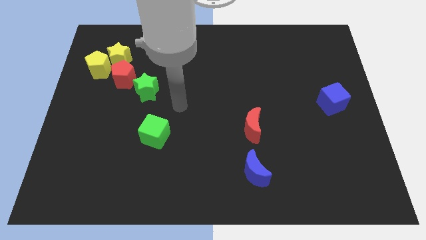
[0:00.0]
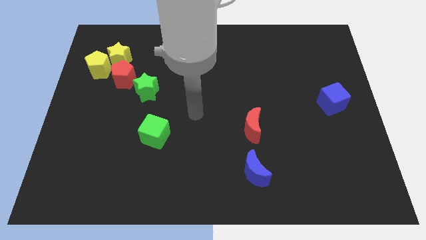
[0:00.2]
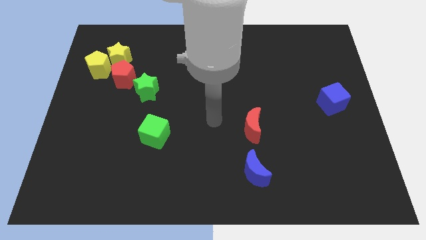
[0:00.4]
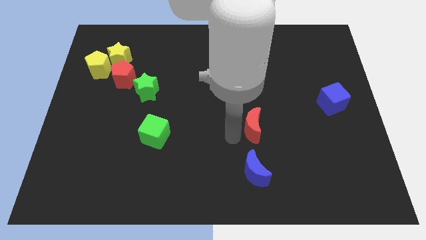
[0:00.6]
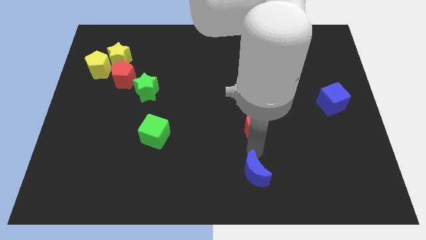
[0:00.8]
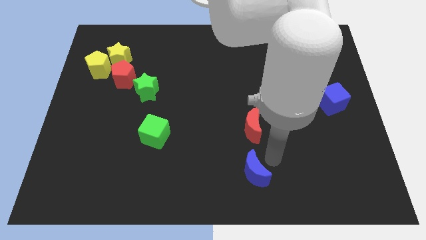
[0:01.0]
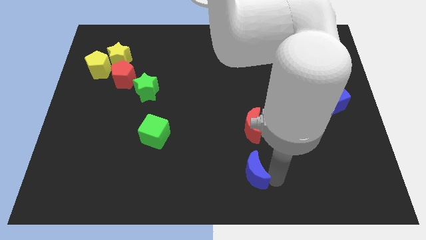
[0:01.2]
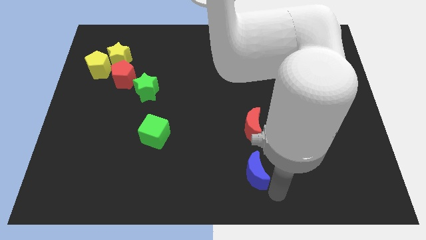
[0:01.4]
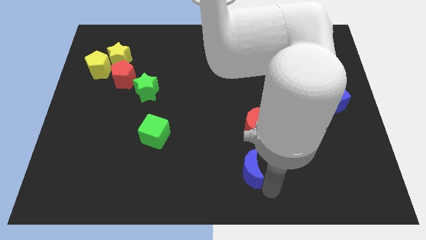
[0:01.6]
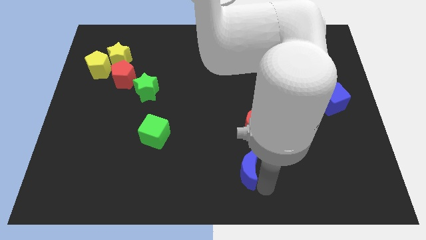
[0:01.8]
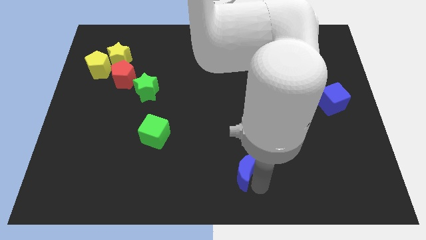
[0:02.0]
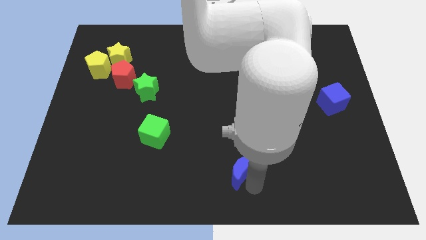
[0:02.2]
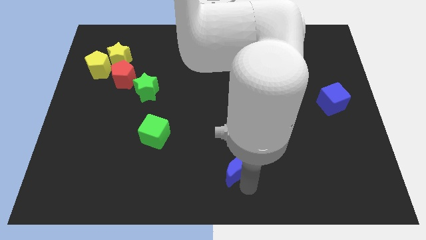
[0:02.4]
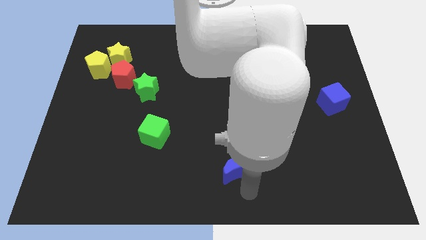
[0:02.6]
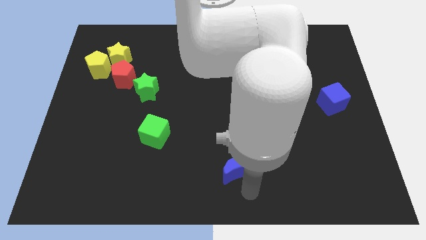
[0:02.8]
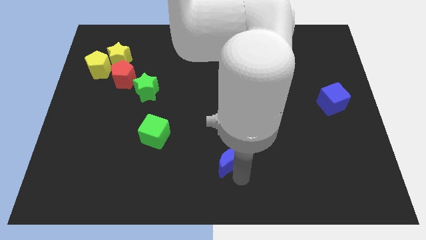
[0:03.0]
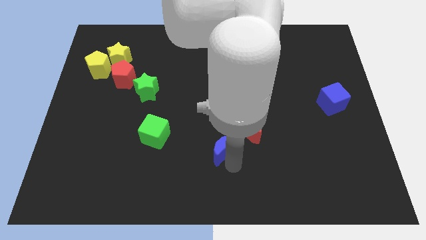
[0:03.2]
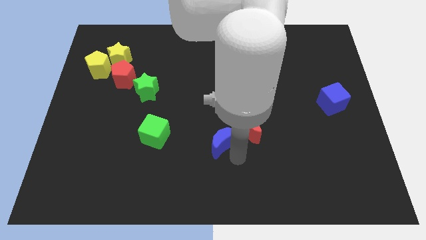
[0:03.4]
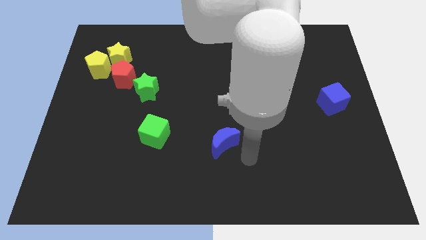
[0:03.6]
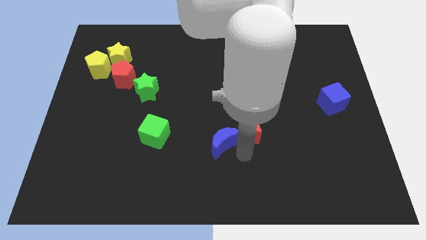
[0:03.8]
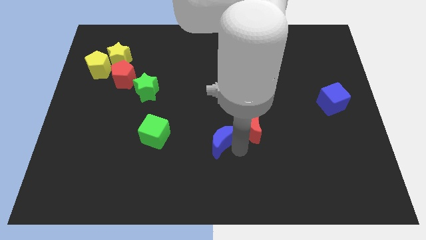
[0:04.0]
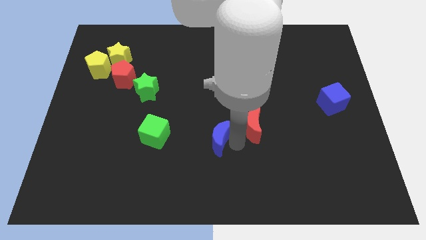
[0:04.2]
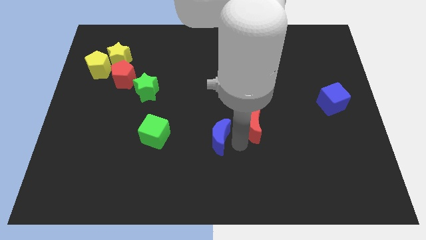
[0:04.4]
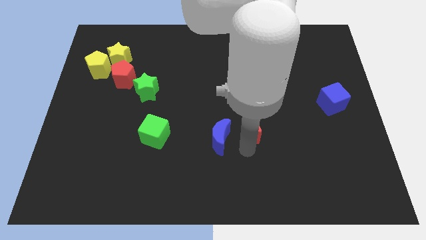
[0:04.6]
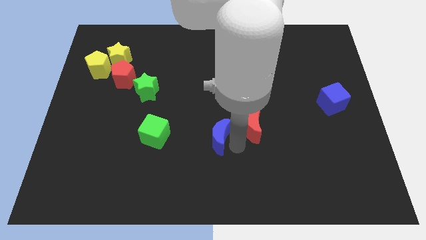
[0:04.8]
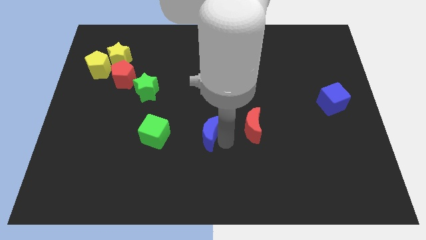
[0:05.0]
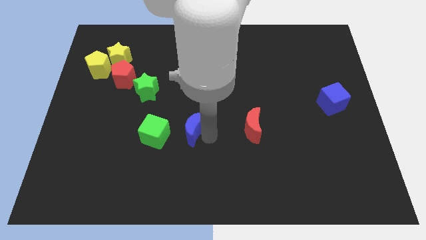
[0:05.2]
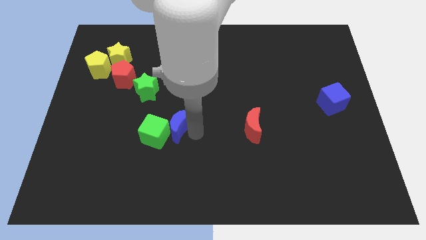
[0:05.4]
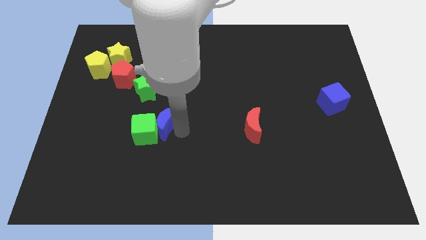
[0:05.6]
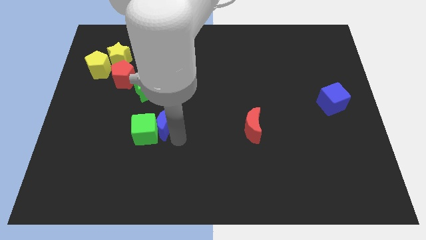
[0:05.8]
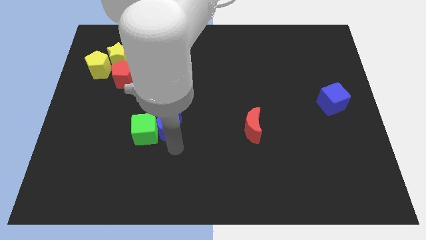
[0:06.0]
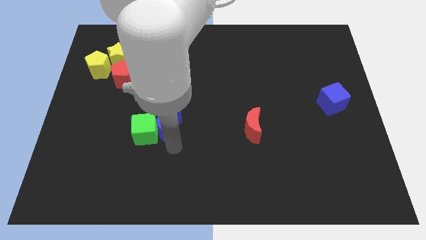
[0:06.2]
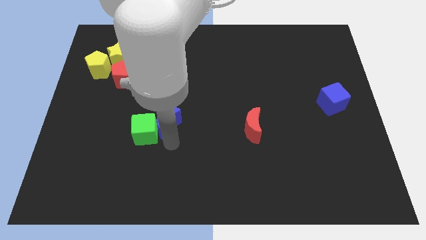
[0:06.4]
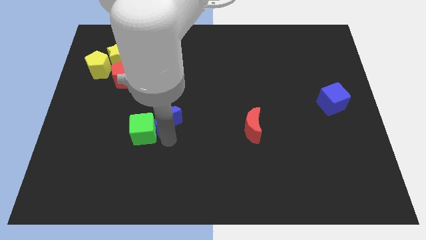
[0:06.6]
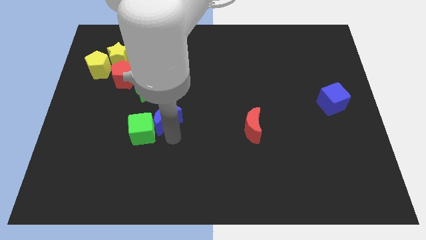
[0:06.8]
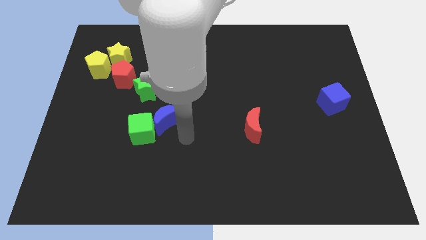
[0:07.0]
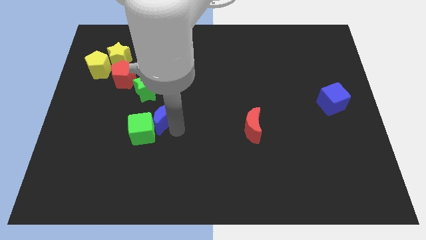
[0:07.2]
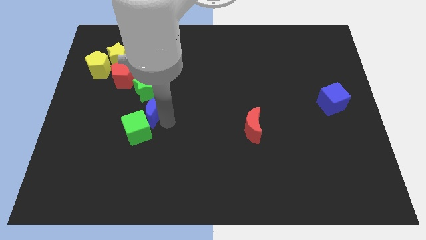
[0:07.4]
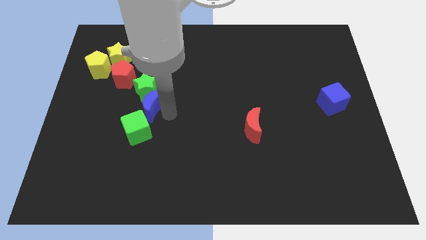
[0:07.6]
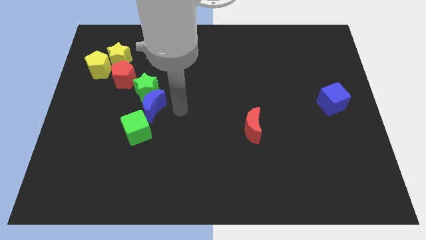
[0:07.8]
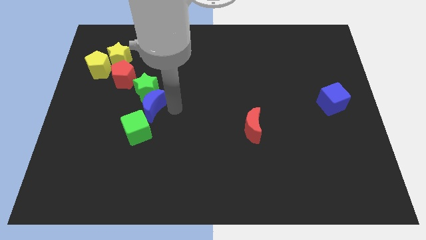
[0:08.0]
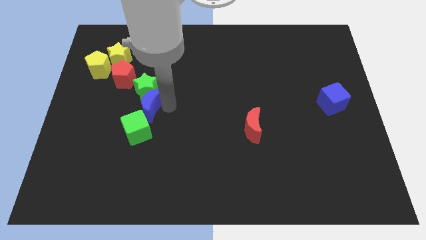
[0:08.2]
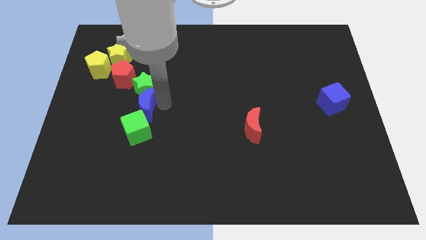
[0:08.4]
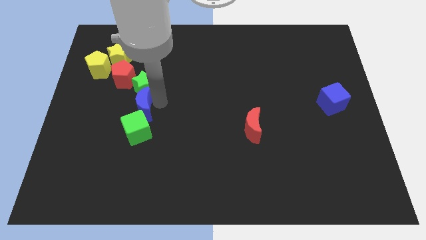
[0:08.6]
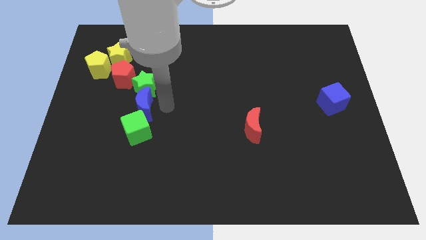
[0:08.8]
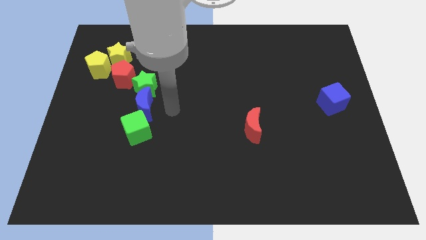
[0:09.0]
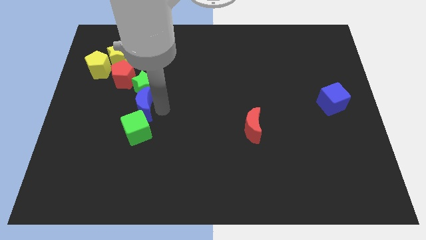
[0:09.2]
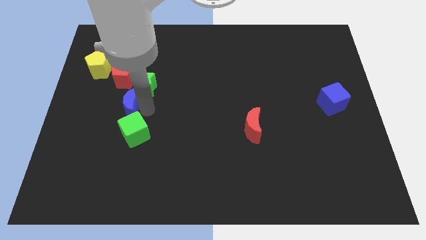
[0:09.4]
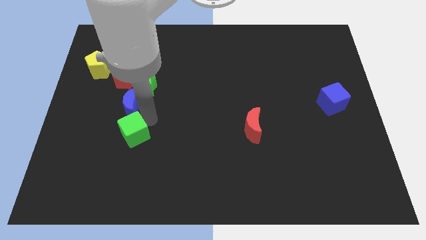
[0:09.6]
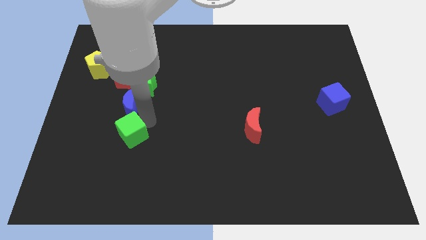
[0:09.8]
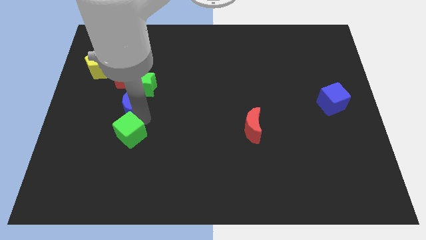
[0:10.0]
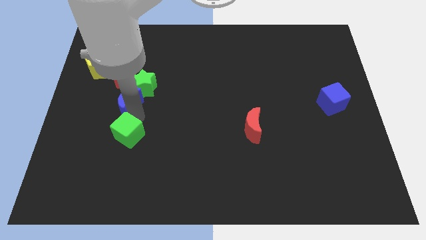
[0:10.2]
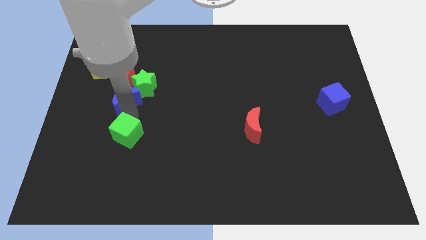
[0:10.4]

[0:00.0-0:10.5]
move the blue moon below the yellow star

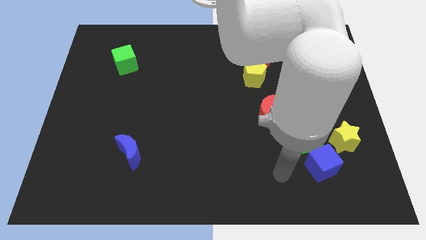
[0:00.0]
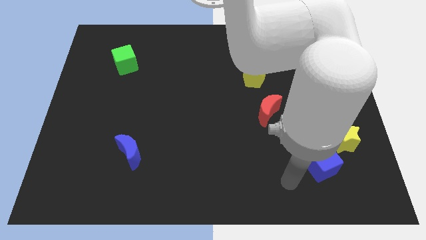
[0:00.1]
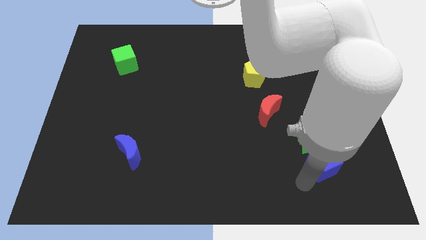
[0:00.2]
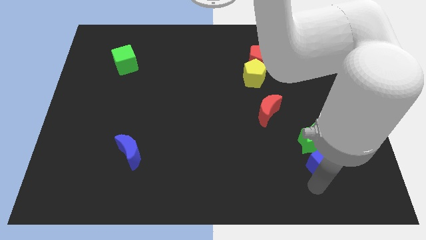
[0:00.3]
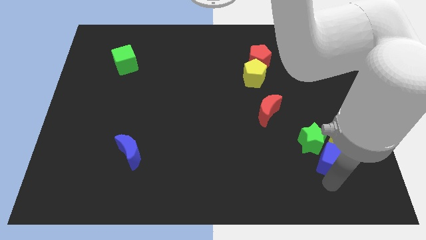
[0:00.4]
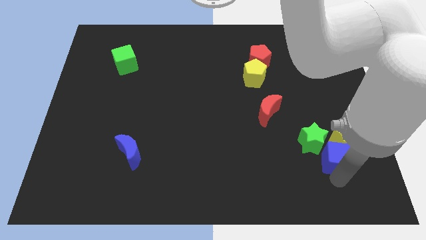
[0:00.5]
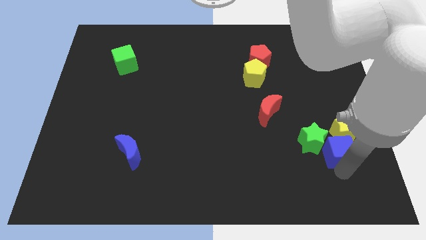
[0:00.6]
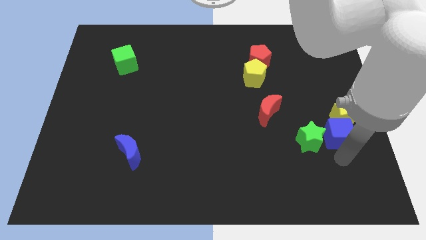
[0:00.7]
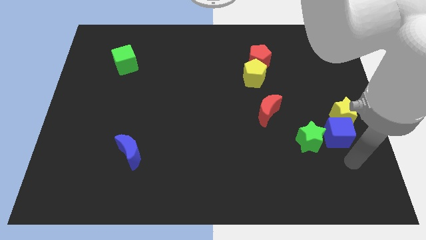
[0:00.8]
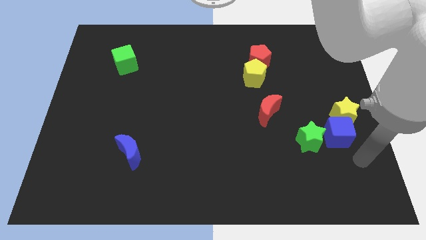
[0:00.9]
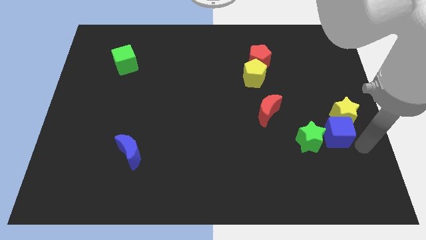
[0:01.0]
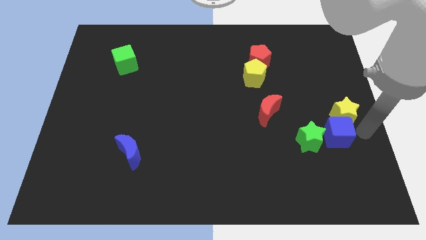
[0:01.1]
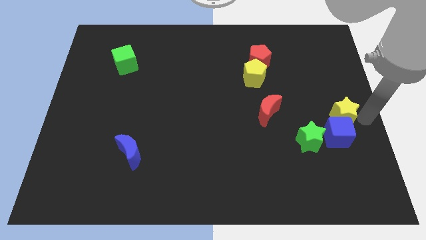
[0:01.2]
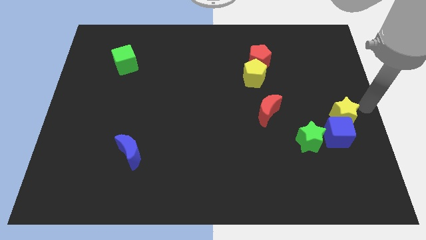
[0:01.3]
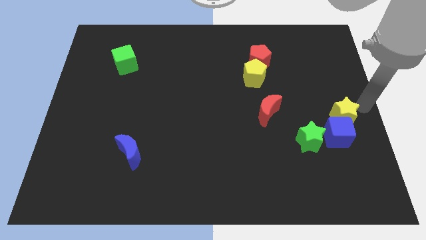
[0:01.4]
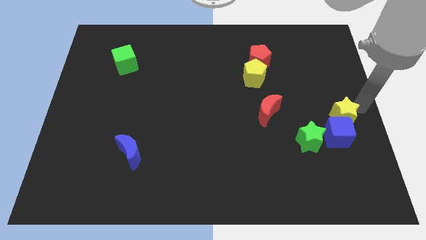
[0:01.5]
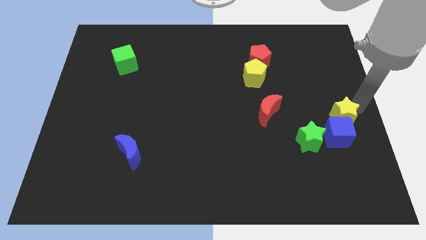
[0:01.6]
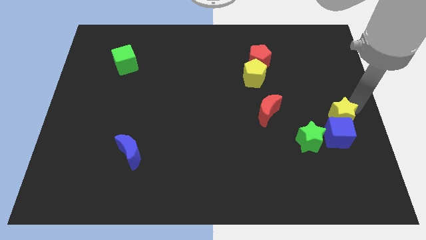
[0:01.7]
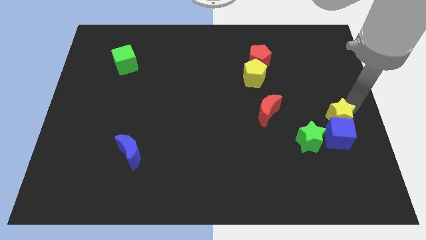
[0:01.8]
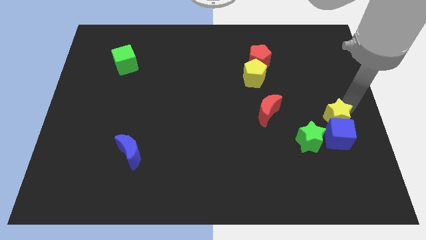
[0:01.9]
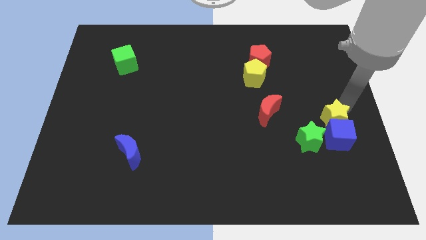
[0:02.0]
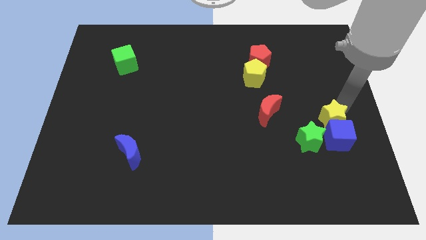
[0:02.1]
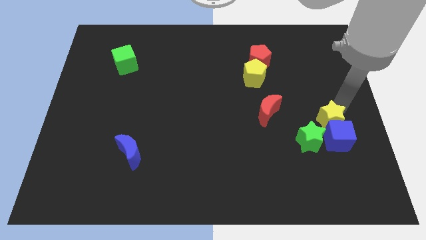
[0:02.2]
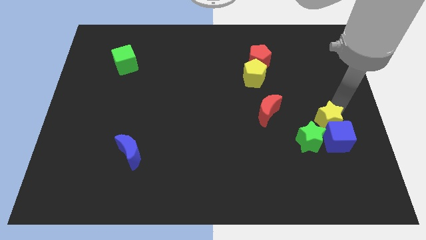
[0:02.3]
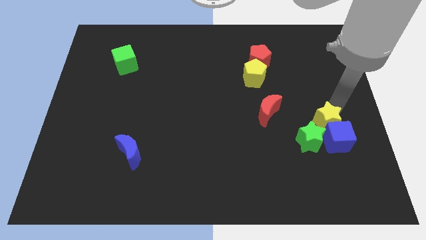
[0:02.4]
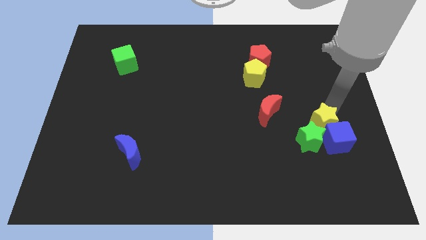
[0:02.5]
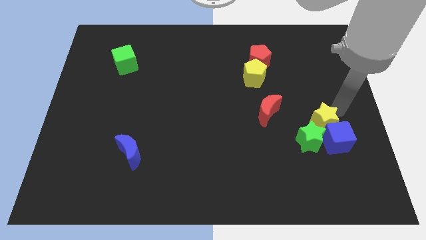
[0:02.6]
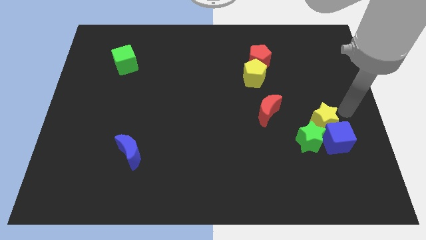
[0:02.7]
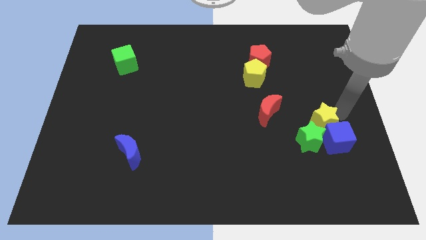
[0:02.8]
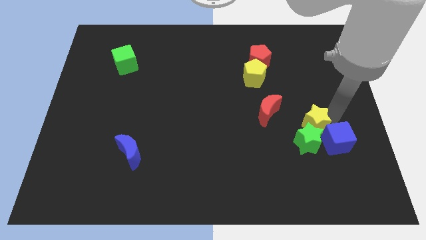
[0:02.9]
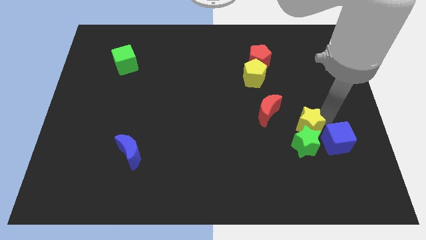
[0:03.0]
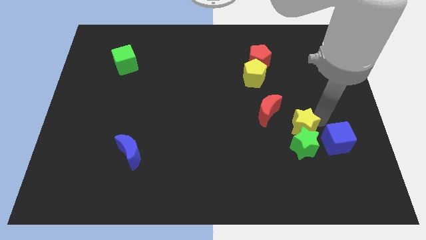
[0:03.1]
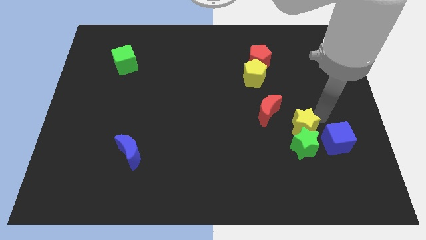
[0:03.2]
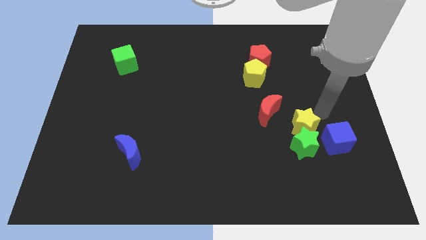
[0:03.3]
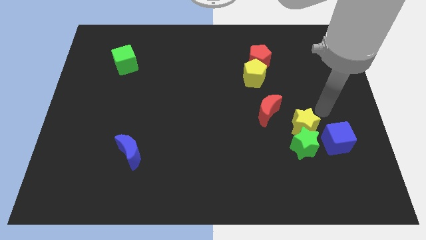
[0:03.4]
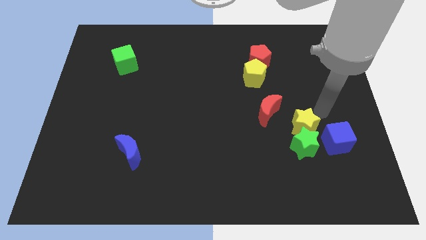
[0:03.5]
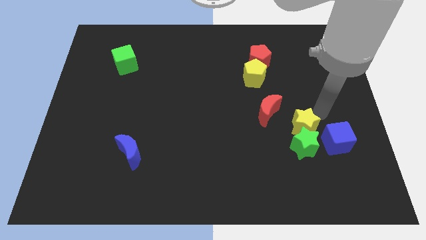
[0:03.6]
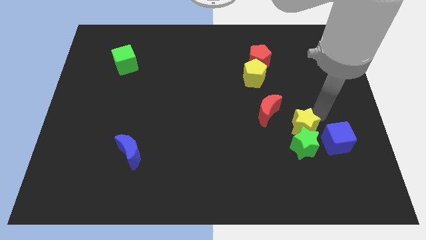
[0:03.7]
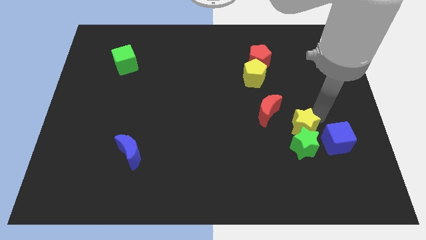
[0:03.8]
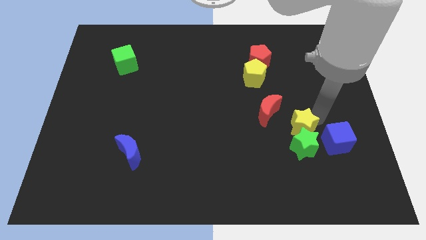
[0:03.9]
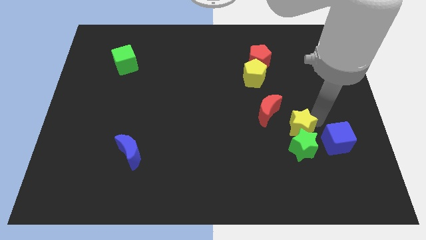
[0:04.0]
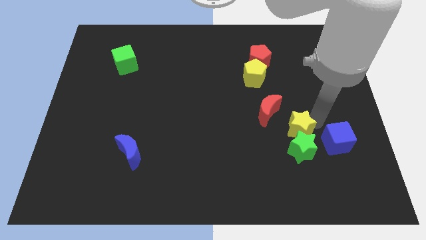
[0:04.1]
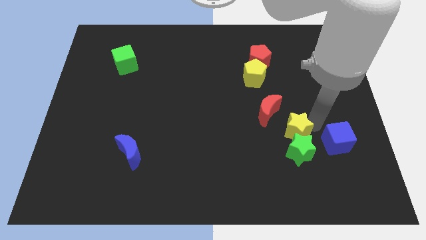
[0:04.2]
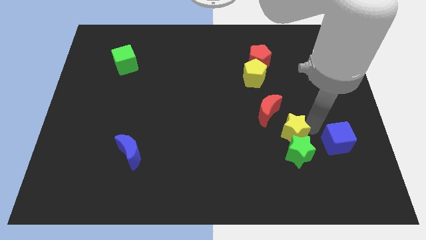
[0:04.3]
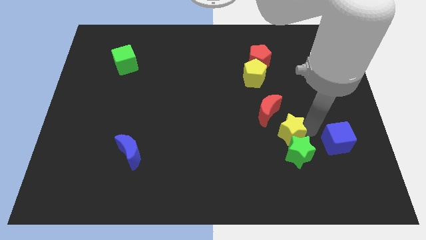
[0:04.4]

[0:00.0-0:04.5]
put the yellow star below the red moon
